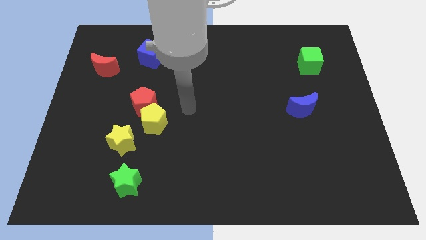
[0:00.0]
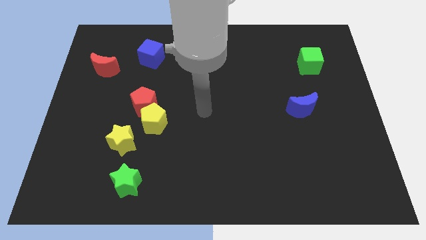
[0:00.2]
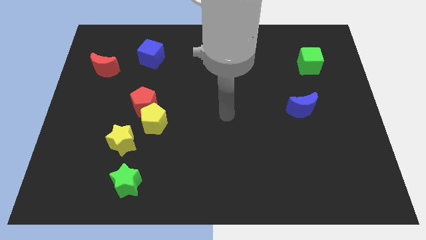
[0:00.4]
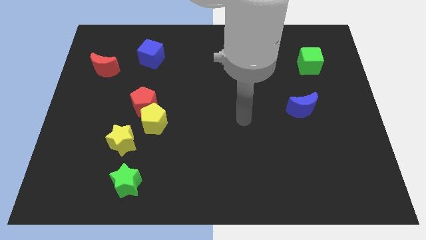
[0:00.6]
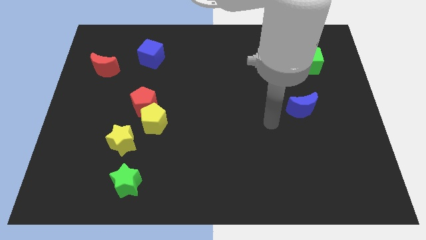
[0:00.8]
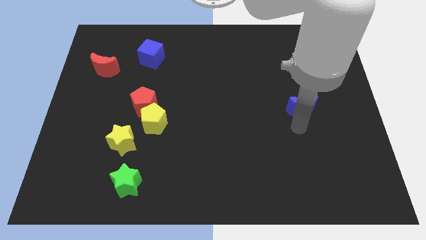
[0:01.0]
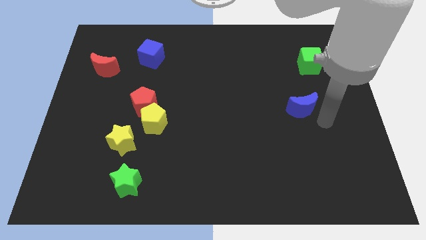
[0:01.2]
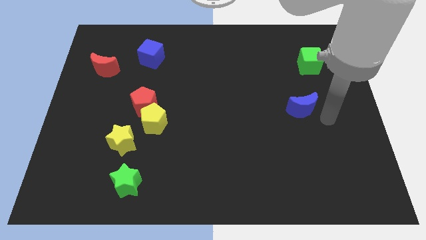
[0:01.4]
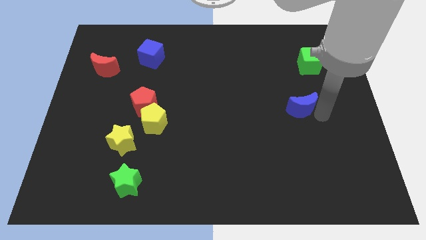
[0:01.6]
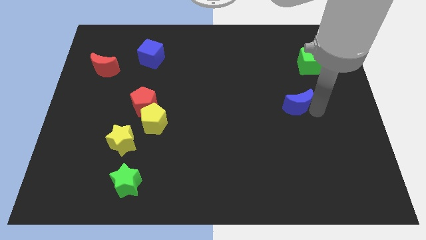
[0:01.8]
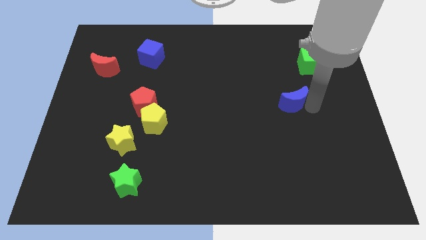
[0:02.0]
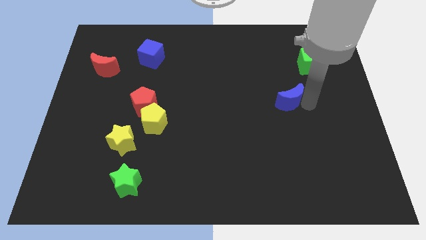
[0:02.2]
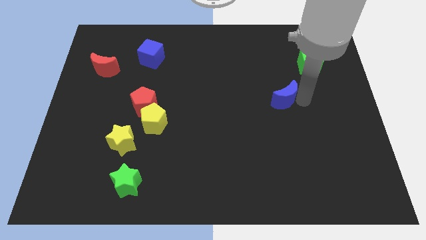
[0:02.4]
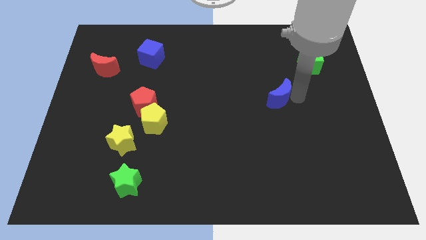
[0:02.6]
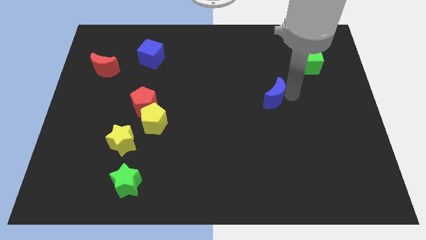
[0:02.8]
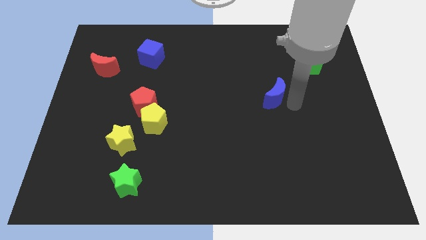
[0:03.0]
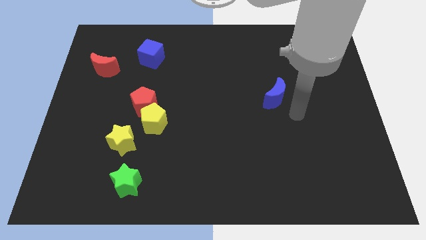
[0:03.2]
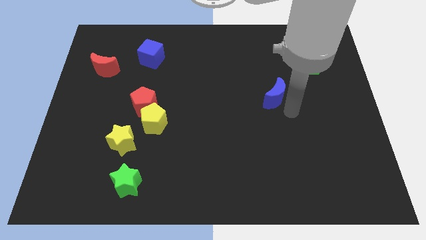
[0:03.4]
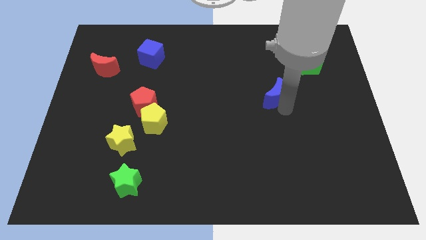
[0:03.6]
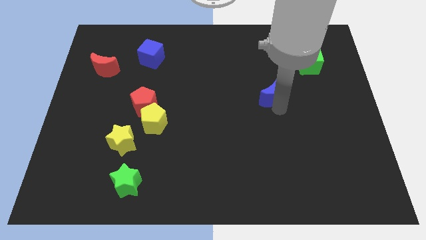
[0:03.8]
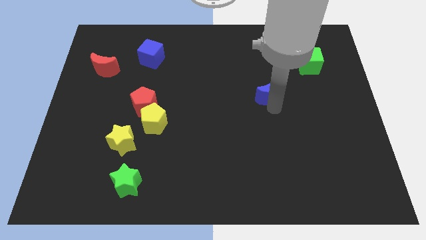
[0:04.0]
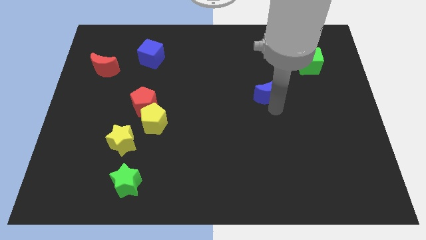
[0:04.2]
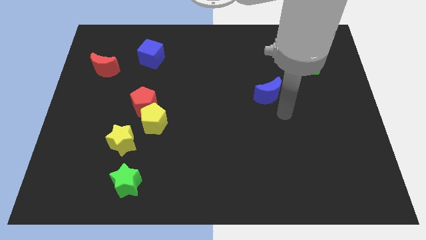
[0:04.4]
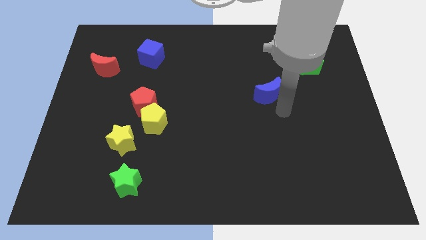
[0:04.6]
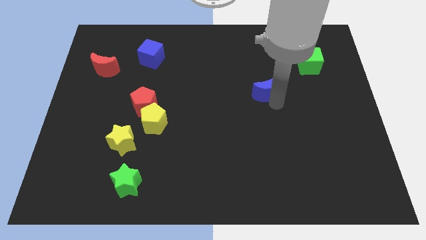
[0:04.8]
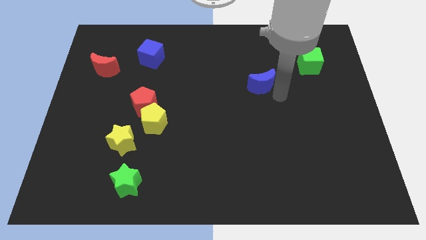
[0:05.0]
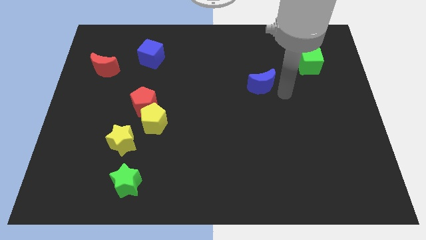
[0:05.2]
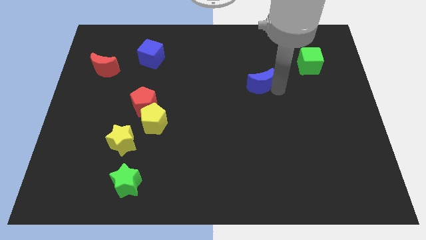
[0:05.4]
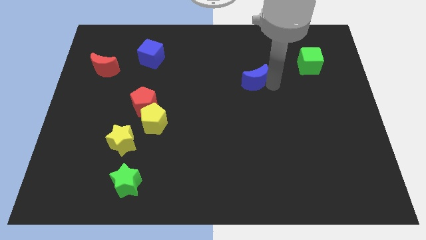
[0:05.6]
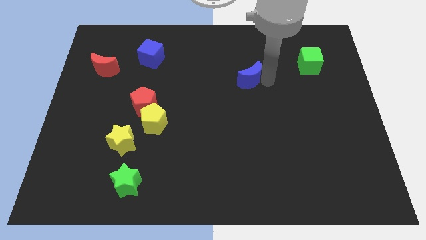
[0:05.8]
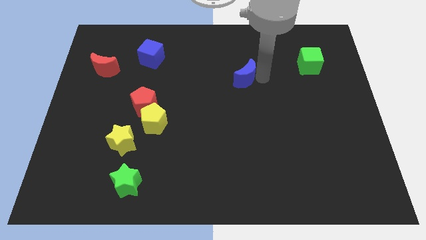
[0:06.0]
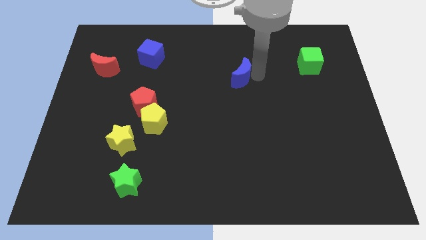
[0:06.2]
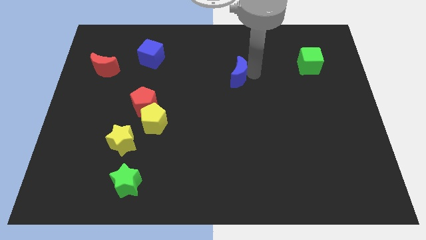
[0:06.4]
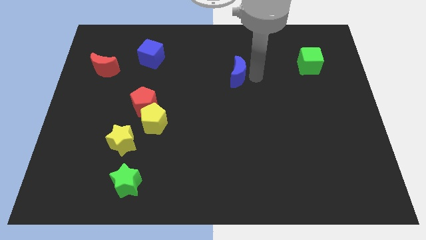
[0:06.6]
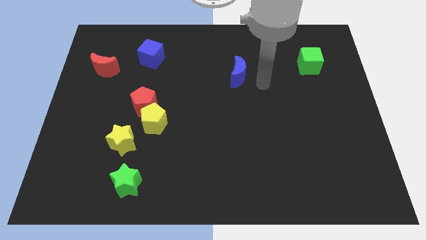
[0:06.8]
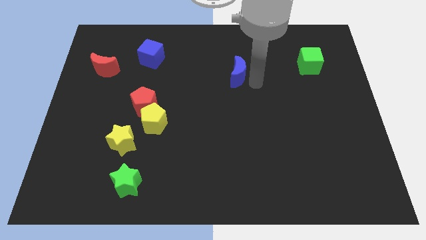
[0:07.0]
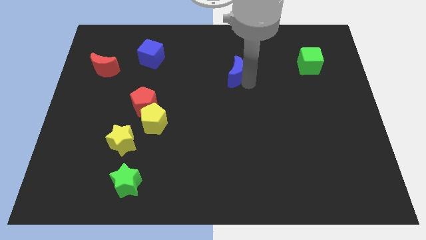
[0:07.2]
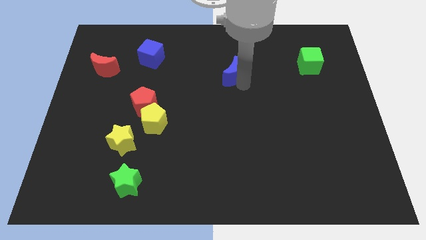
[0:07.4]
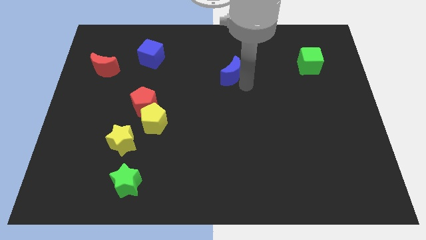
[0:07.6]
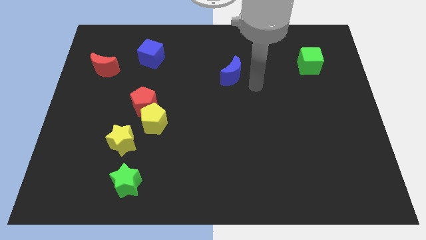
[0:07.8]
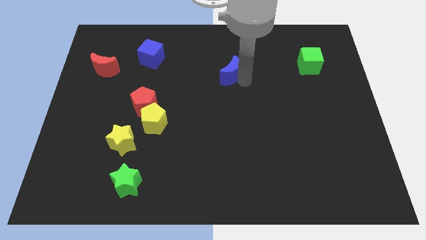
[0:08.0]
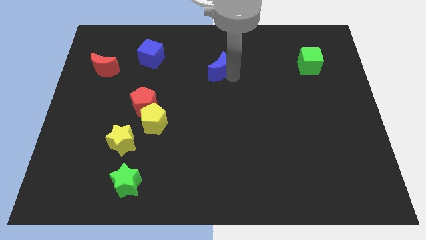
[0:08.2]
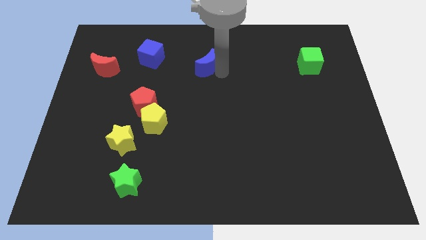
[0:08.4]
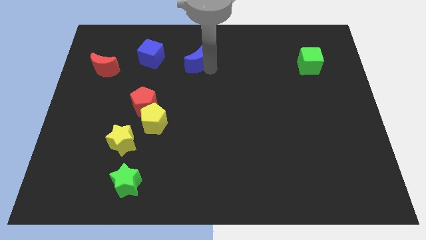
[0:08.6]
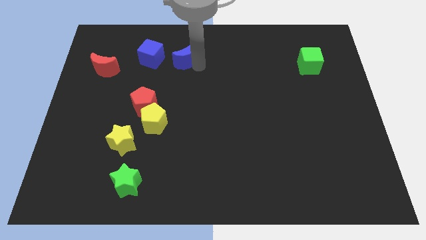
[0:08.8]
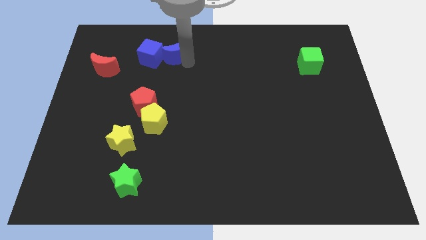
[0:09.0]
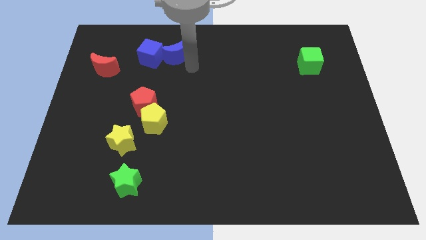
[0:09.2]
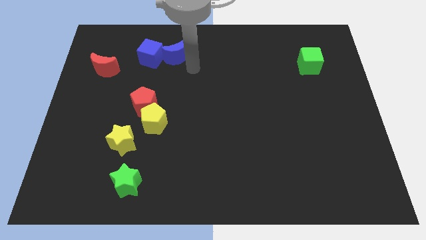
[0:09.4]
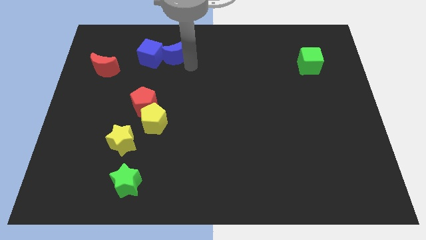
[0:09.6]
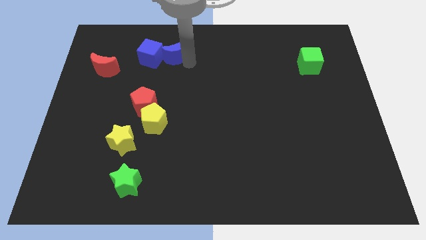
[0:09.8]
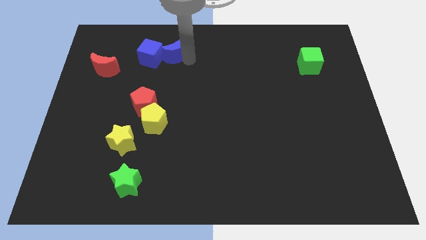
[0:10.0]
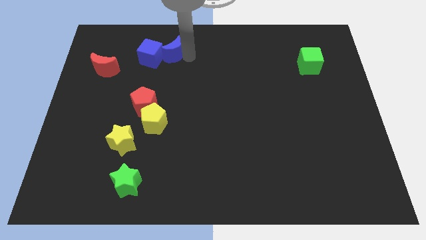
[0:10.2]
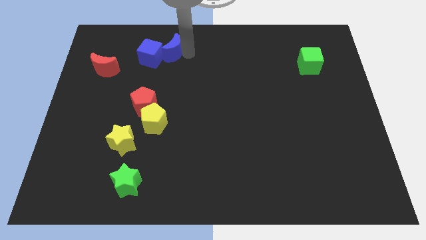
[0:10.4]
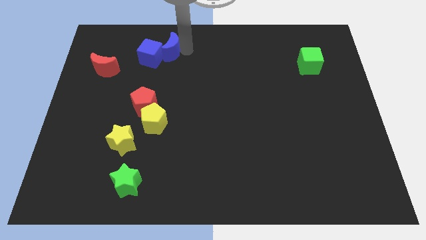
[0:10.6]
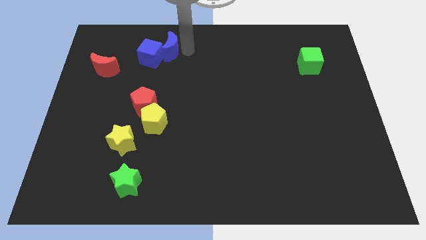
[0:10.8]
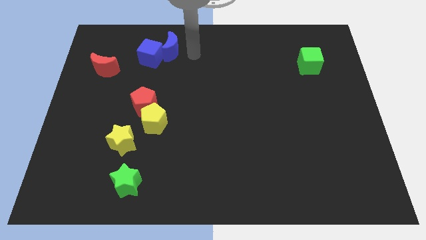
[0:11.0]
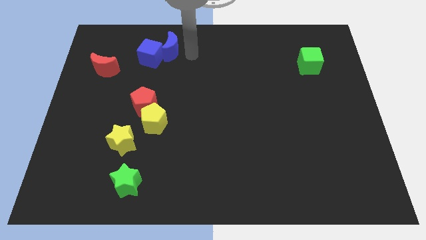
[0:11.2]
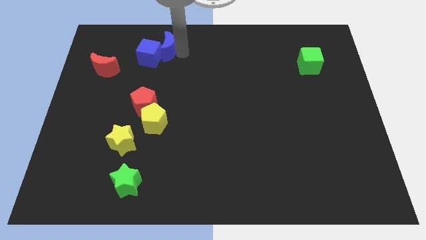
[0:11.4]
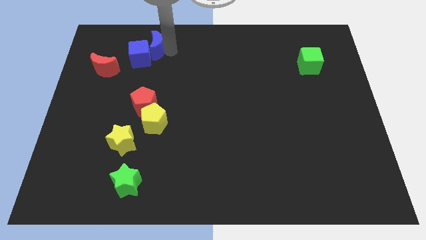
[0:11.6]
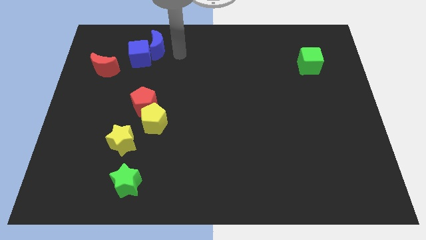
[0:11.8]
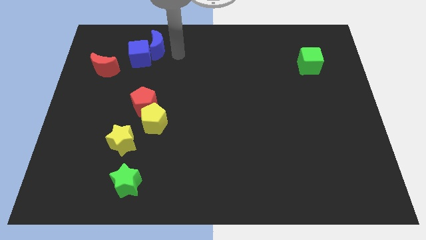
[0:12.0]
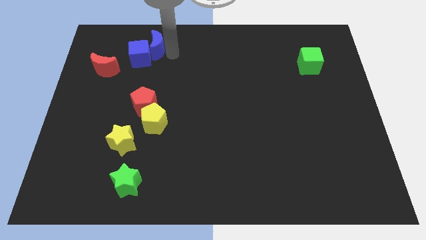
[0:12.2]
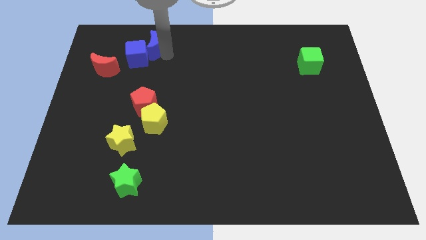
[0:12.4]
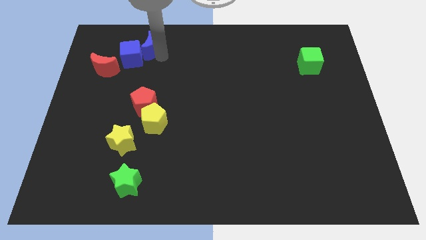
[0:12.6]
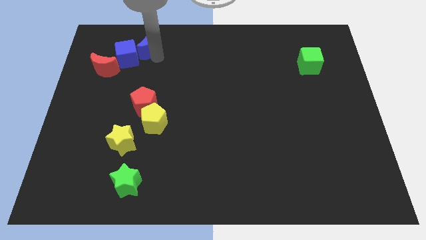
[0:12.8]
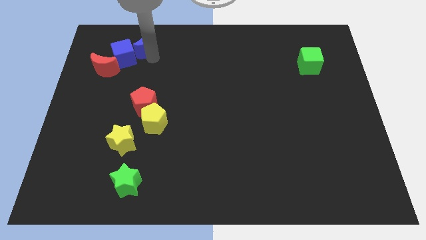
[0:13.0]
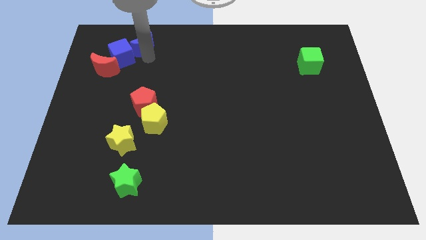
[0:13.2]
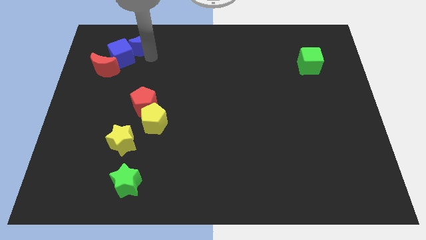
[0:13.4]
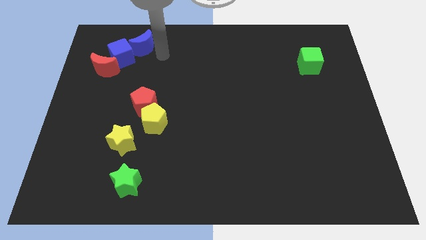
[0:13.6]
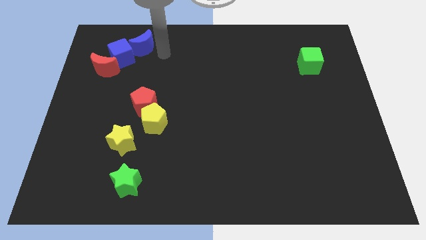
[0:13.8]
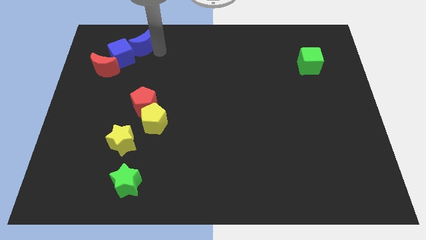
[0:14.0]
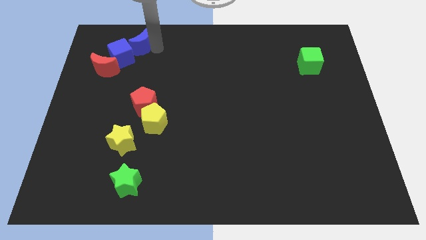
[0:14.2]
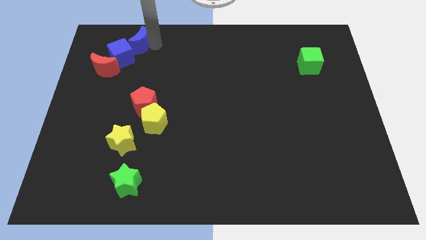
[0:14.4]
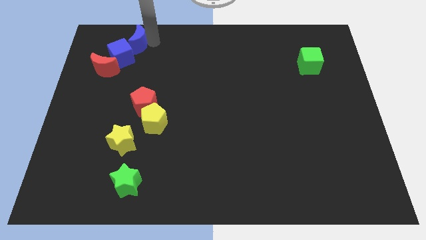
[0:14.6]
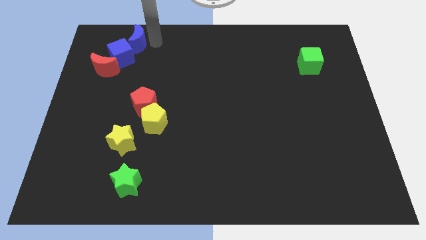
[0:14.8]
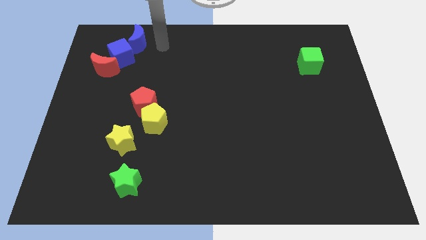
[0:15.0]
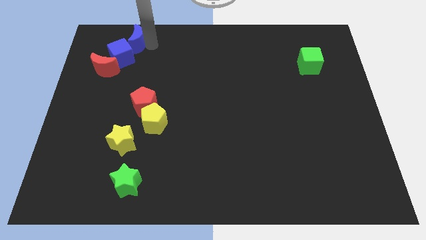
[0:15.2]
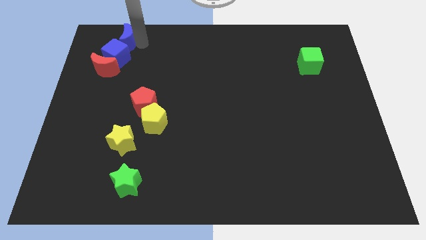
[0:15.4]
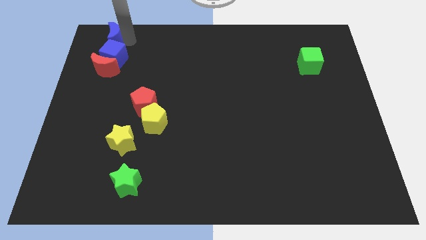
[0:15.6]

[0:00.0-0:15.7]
slide the blue moon to the top left of the board
